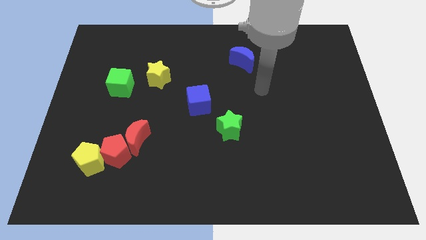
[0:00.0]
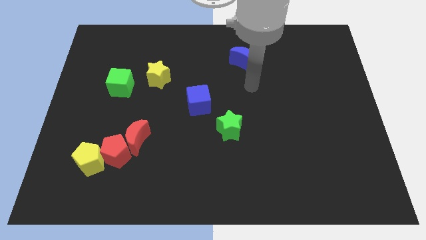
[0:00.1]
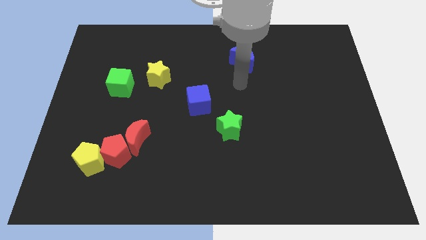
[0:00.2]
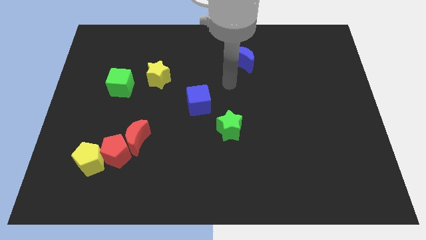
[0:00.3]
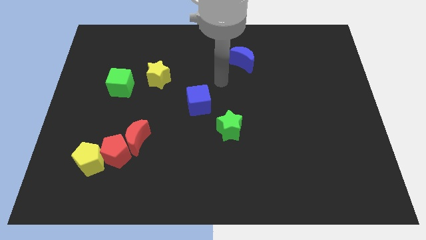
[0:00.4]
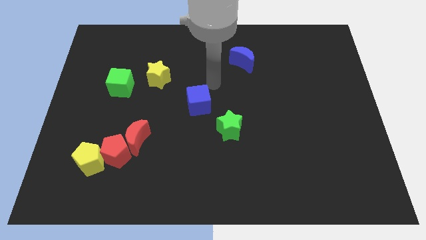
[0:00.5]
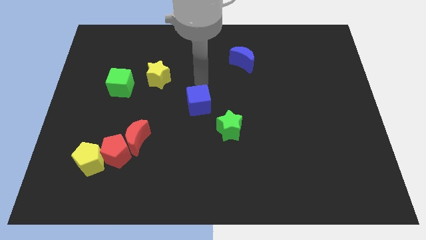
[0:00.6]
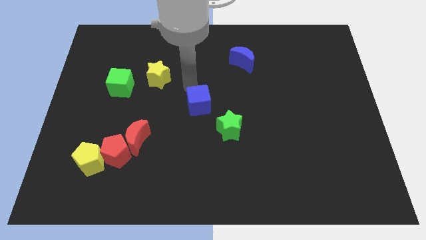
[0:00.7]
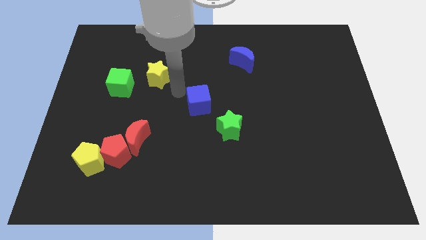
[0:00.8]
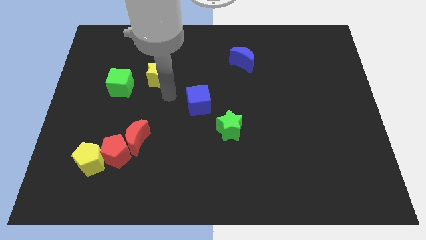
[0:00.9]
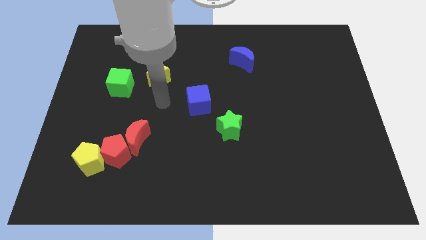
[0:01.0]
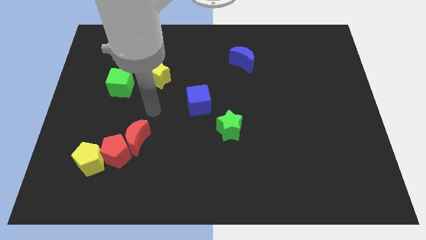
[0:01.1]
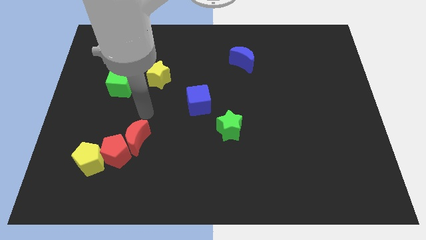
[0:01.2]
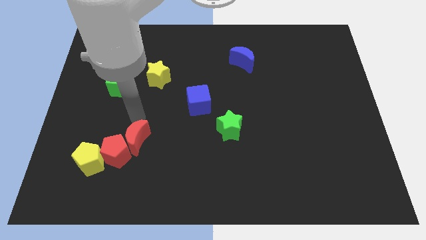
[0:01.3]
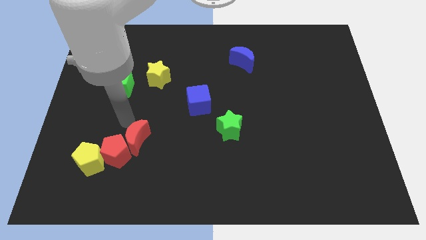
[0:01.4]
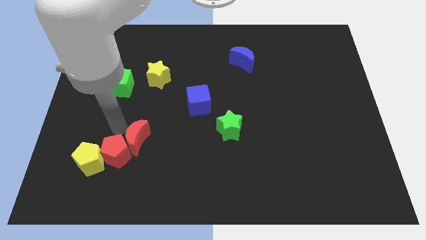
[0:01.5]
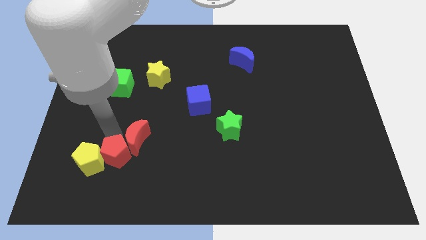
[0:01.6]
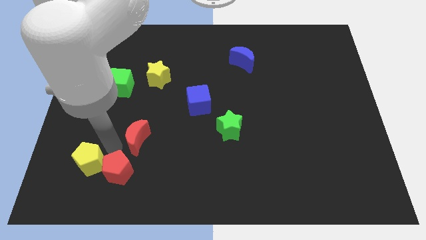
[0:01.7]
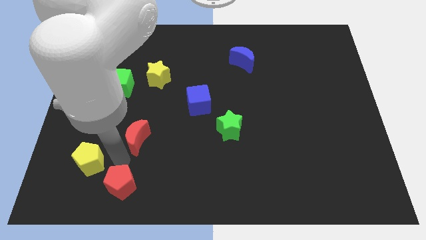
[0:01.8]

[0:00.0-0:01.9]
pull the red moon apart from the red pentagon

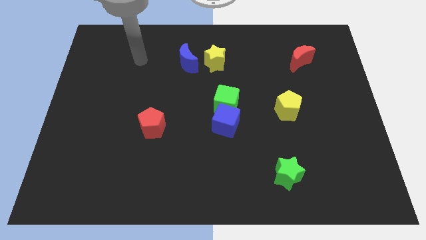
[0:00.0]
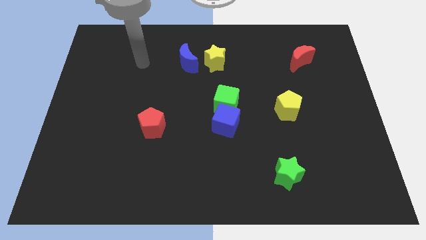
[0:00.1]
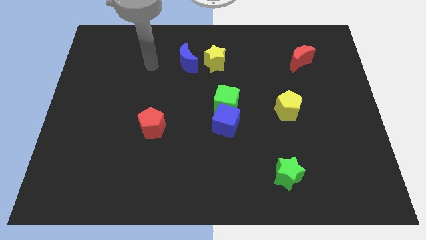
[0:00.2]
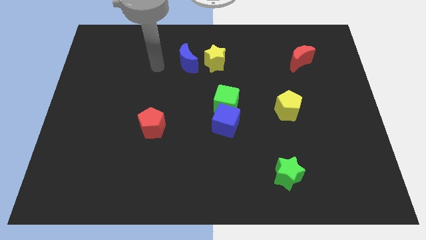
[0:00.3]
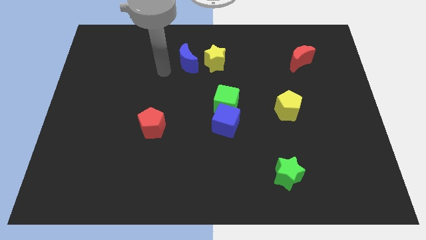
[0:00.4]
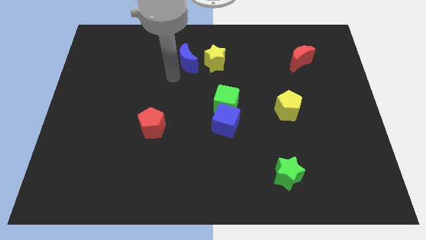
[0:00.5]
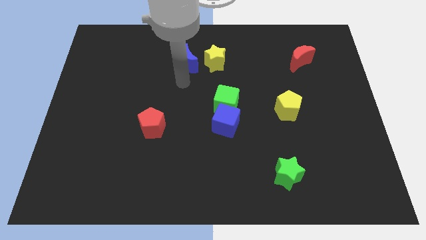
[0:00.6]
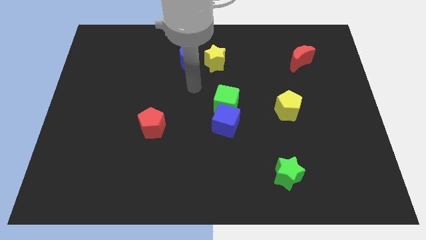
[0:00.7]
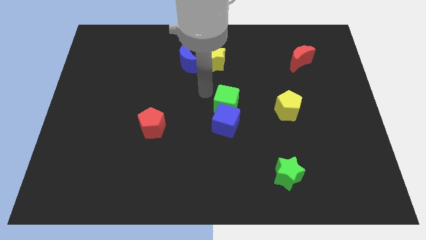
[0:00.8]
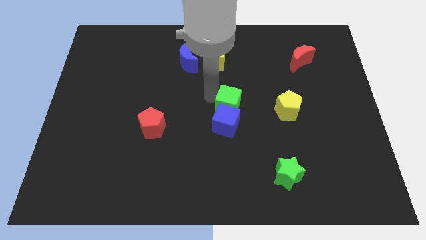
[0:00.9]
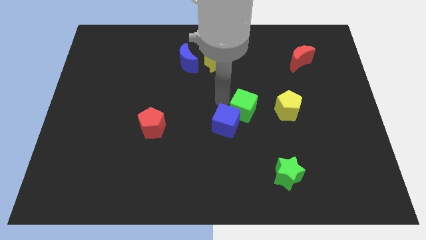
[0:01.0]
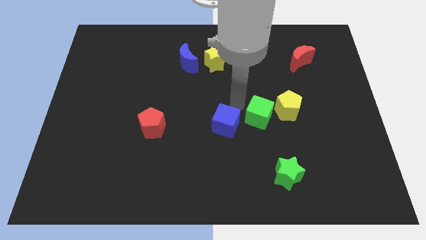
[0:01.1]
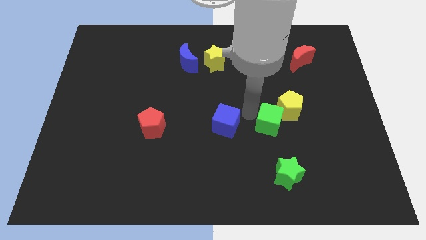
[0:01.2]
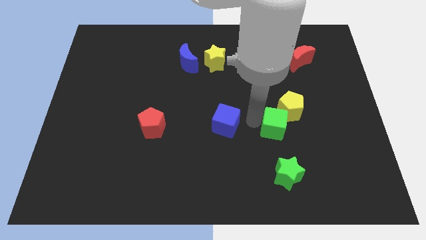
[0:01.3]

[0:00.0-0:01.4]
move the blue cube away from the green cube

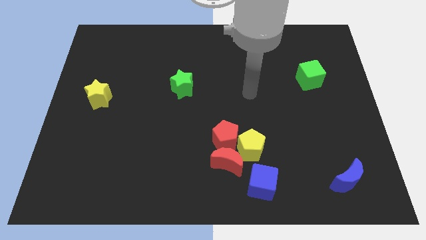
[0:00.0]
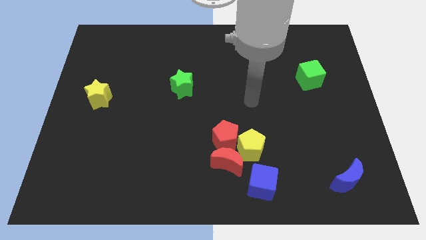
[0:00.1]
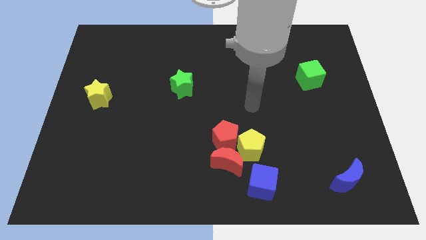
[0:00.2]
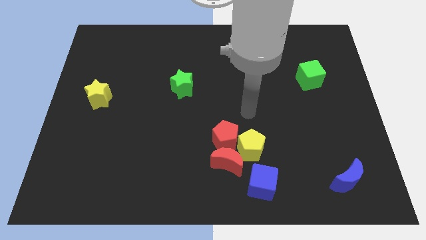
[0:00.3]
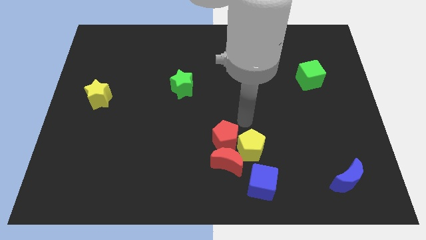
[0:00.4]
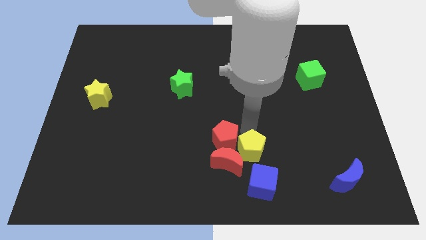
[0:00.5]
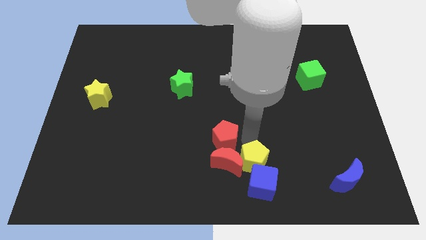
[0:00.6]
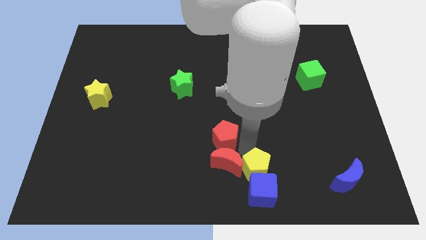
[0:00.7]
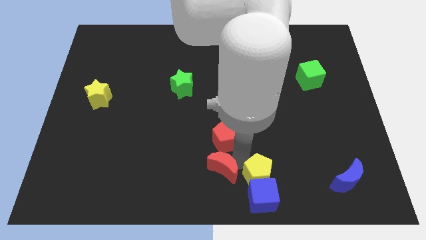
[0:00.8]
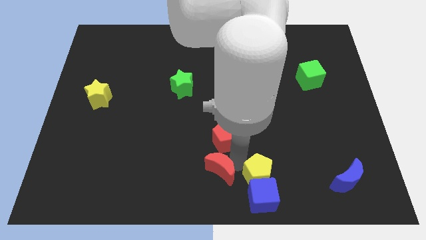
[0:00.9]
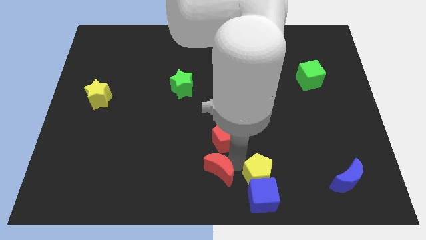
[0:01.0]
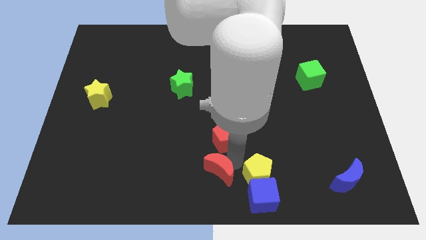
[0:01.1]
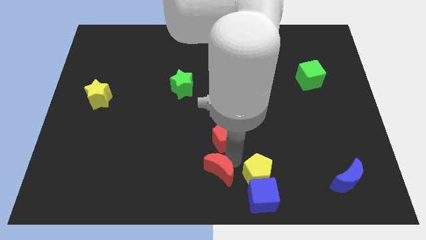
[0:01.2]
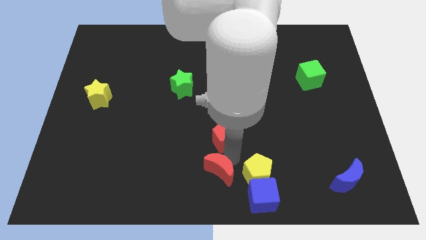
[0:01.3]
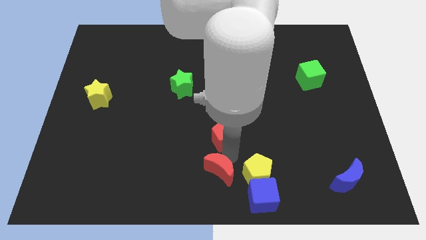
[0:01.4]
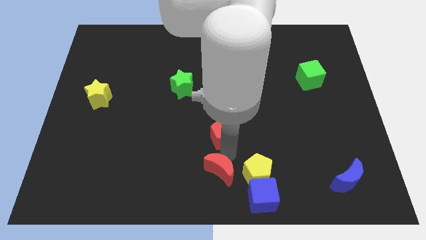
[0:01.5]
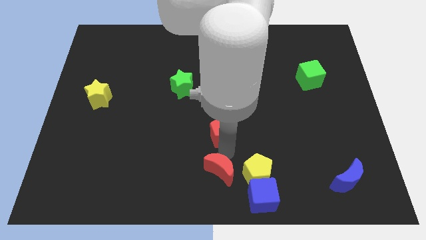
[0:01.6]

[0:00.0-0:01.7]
pull the red pentagon apart from the red moon and yellow pentagon

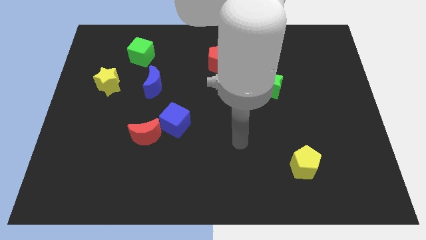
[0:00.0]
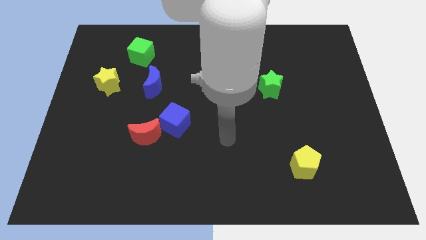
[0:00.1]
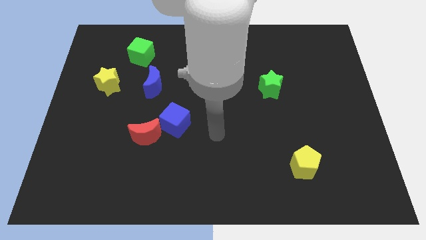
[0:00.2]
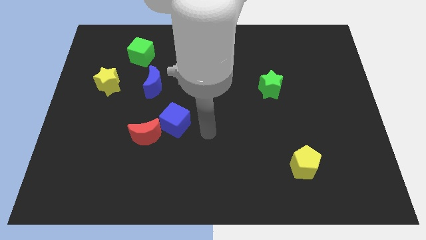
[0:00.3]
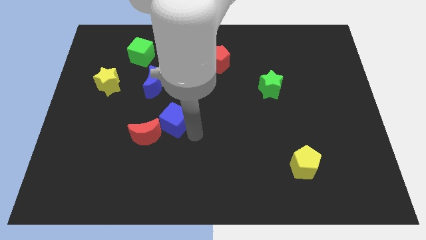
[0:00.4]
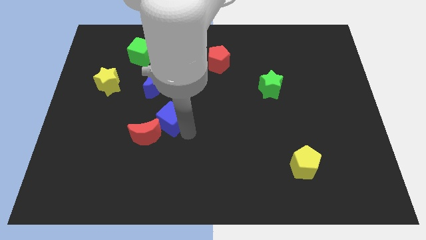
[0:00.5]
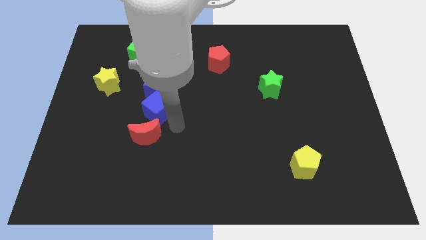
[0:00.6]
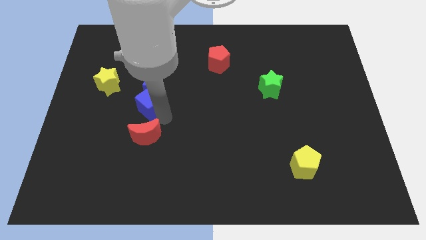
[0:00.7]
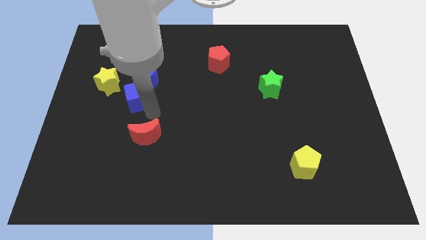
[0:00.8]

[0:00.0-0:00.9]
separate the red moon from the blue cube

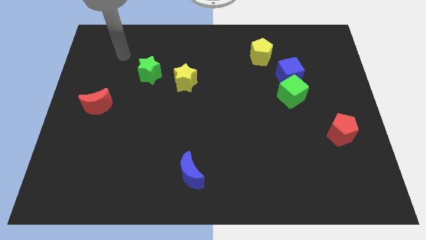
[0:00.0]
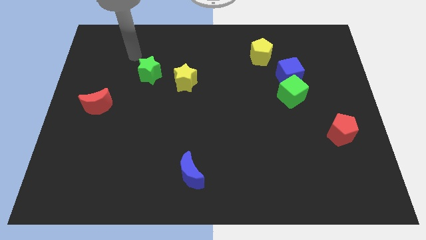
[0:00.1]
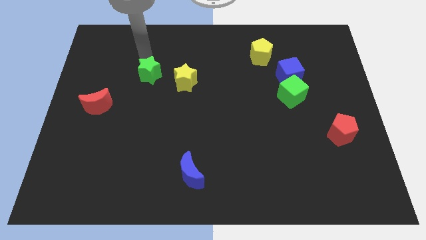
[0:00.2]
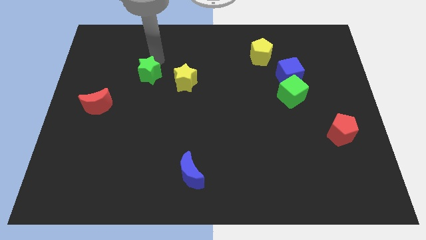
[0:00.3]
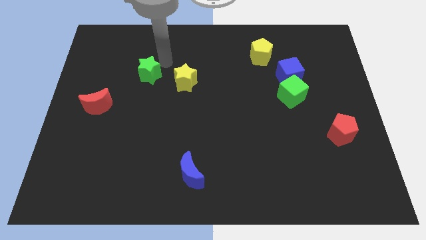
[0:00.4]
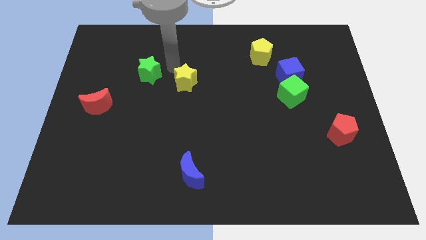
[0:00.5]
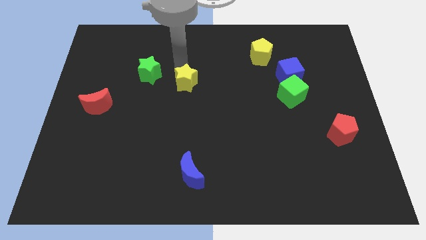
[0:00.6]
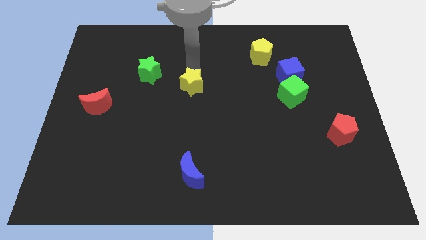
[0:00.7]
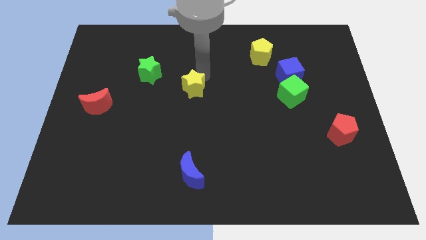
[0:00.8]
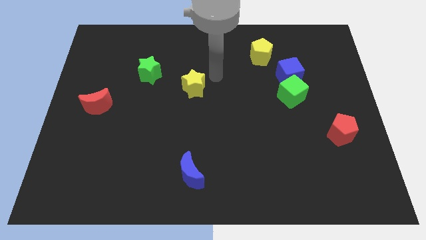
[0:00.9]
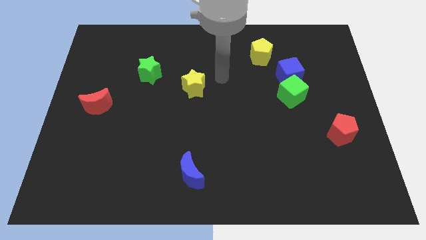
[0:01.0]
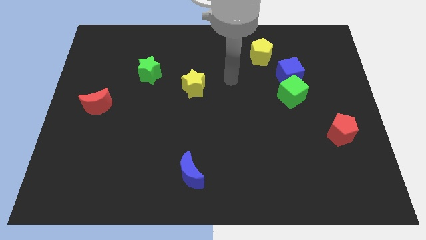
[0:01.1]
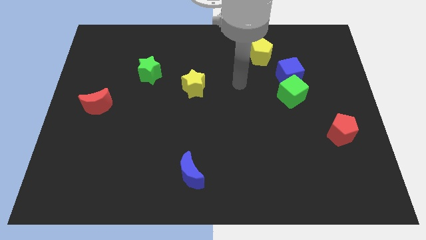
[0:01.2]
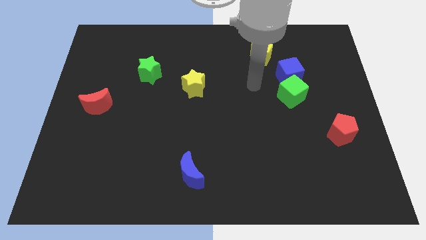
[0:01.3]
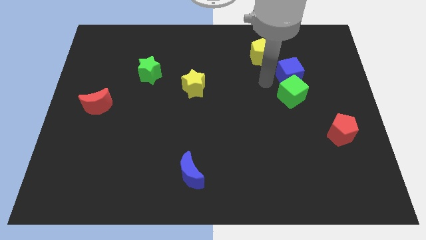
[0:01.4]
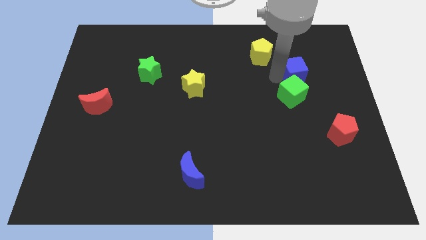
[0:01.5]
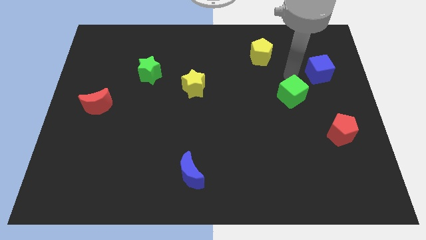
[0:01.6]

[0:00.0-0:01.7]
separate the green cube from the blue cube

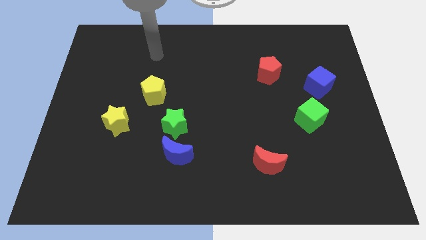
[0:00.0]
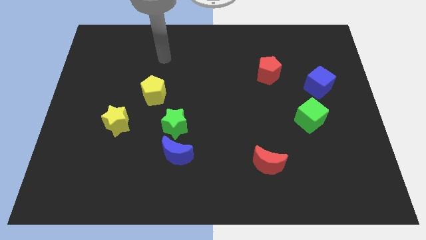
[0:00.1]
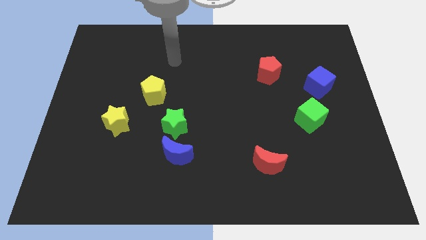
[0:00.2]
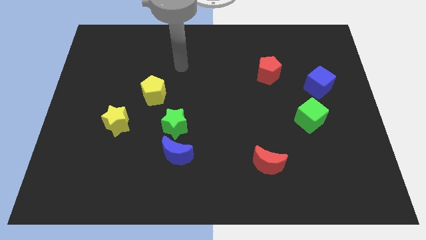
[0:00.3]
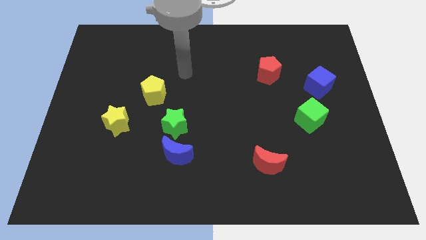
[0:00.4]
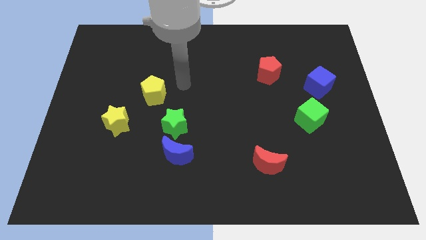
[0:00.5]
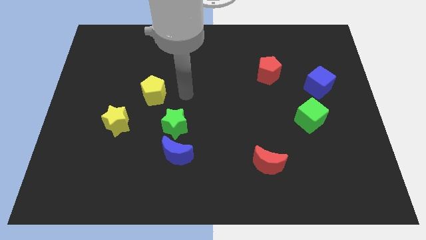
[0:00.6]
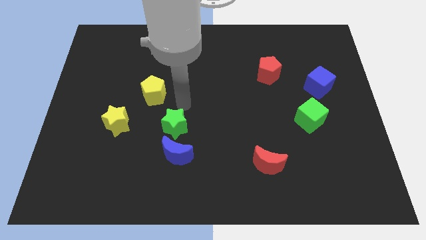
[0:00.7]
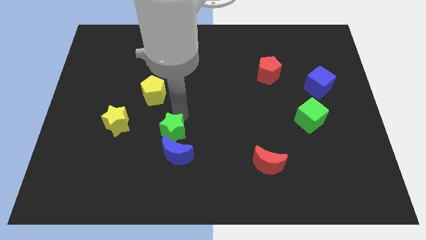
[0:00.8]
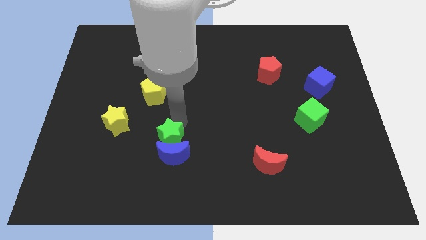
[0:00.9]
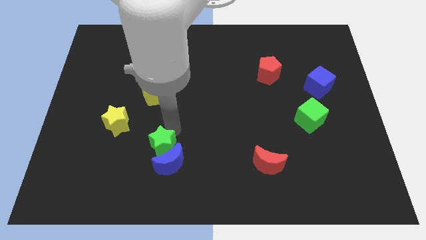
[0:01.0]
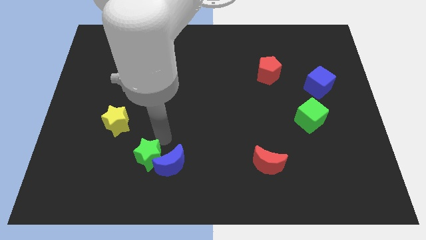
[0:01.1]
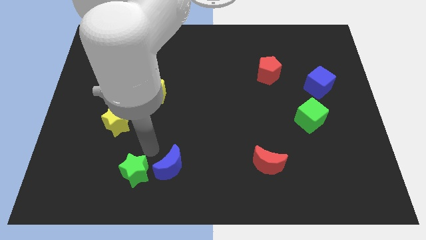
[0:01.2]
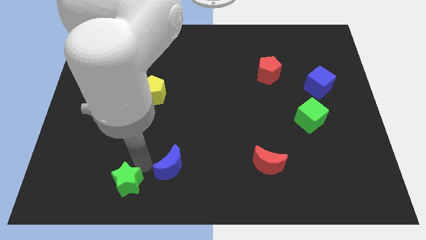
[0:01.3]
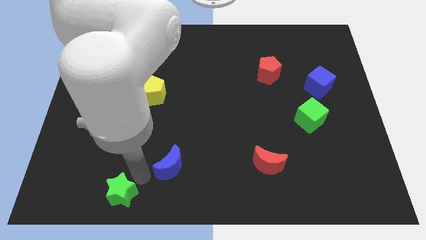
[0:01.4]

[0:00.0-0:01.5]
pull the blue moon apart from the green star

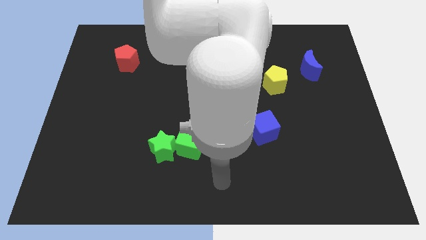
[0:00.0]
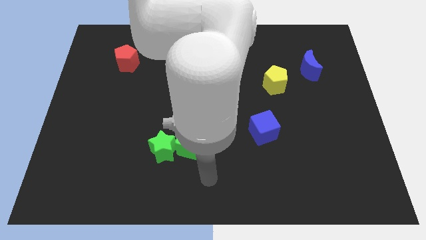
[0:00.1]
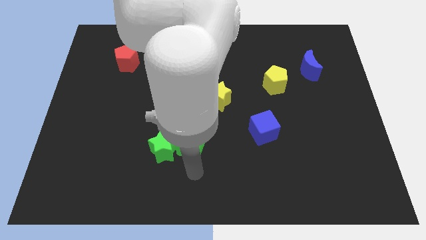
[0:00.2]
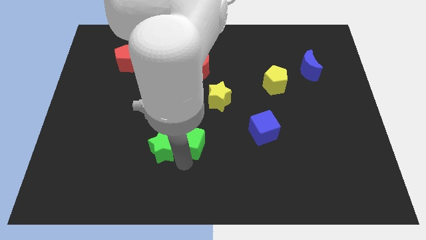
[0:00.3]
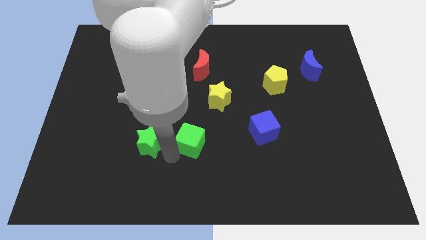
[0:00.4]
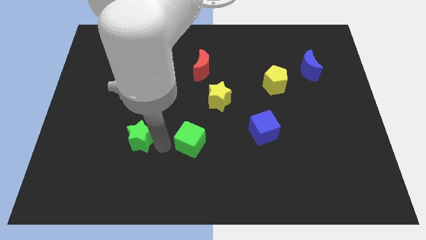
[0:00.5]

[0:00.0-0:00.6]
pull the green cube apart from the green star
